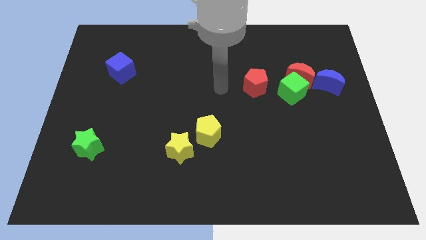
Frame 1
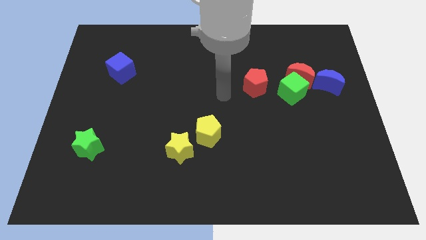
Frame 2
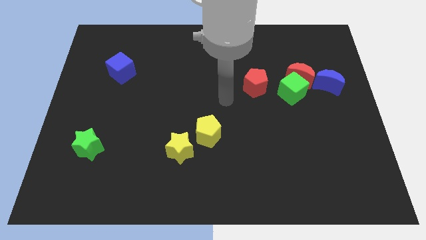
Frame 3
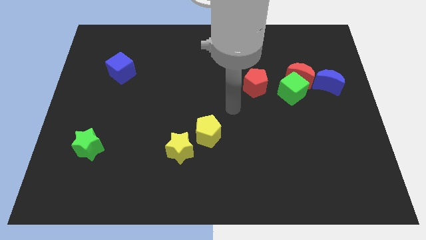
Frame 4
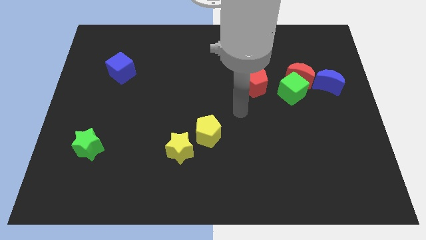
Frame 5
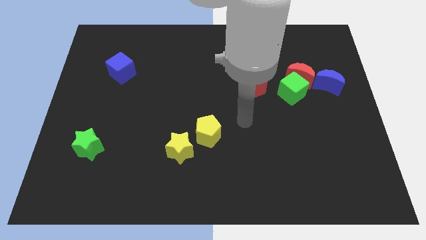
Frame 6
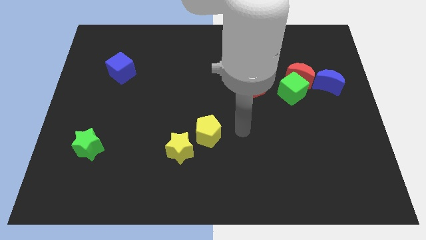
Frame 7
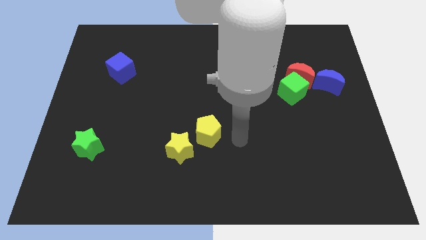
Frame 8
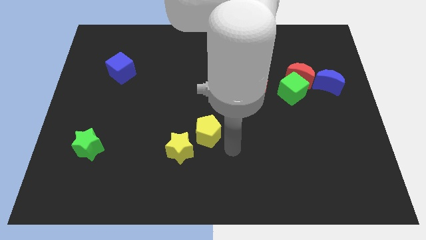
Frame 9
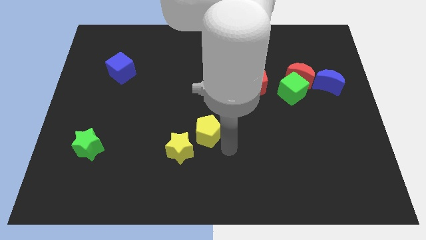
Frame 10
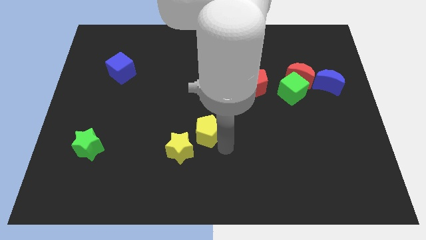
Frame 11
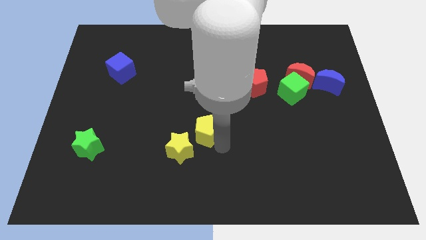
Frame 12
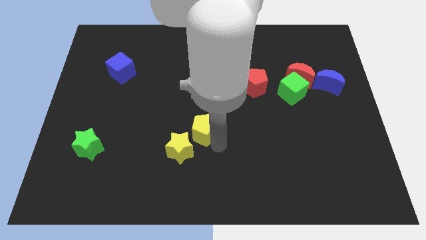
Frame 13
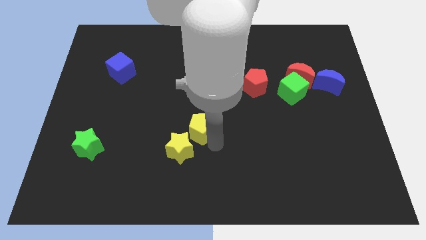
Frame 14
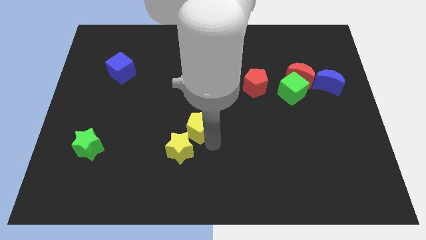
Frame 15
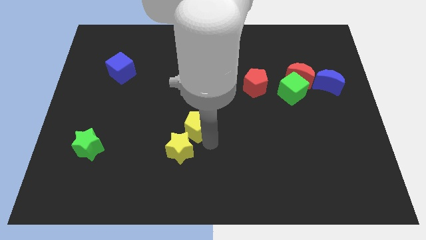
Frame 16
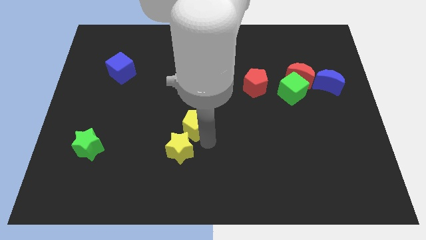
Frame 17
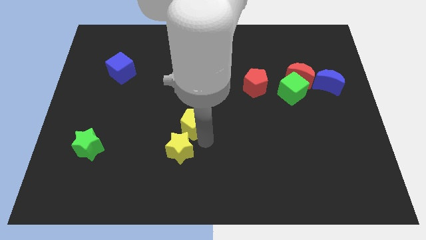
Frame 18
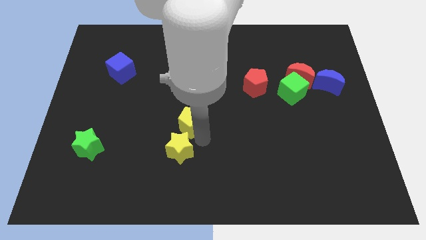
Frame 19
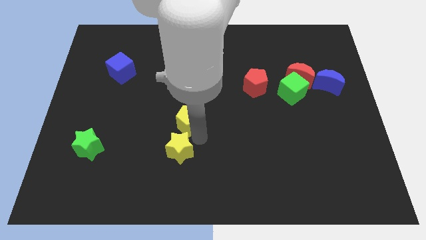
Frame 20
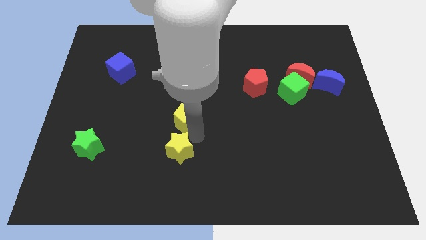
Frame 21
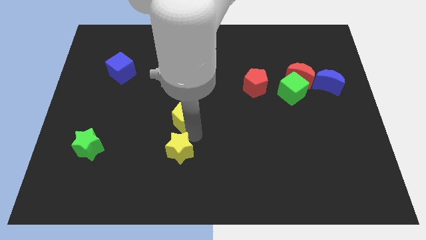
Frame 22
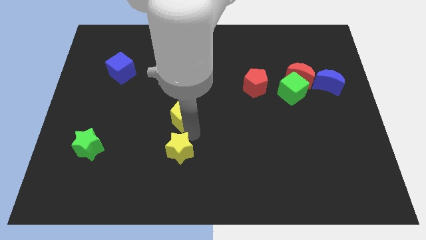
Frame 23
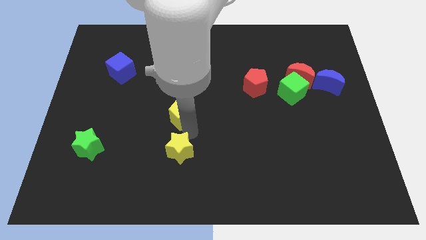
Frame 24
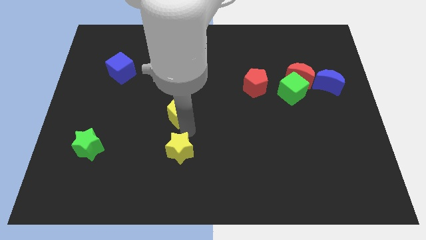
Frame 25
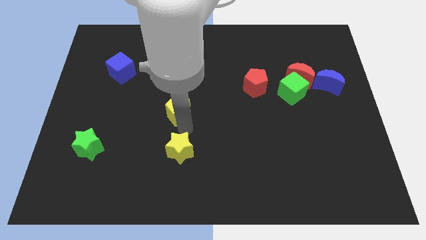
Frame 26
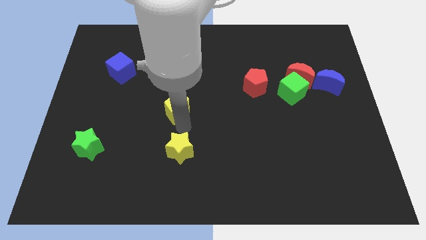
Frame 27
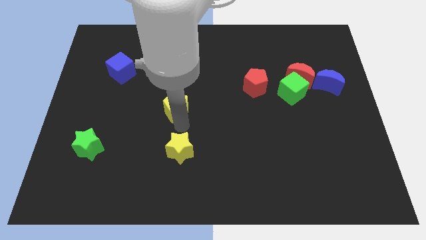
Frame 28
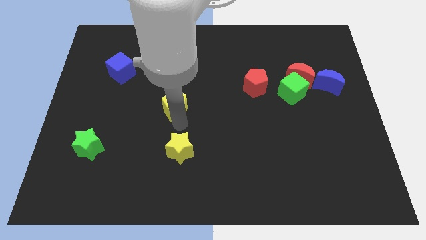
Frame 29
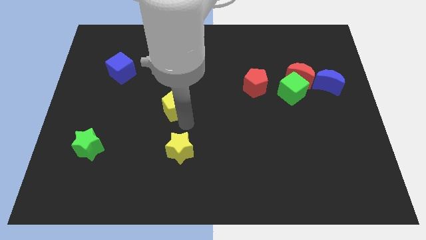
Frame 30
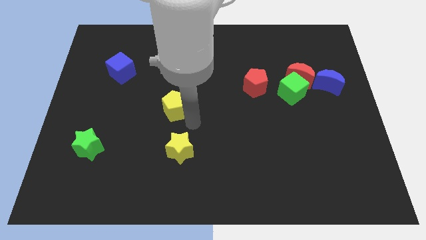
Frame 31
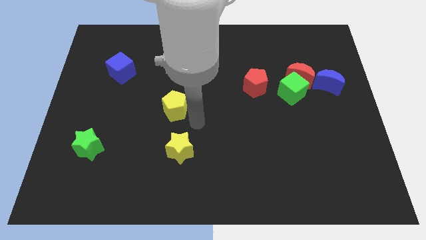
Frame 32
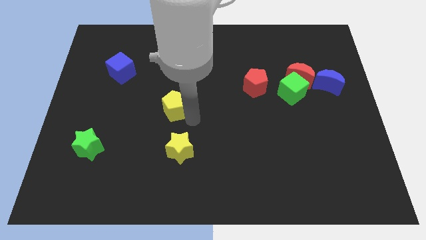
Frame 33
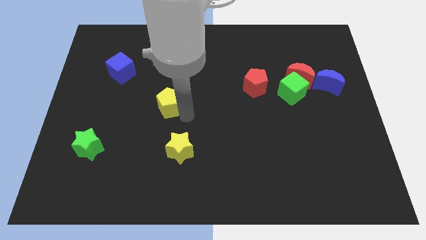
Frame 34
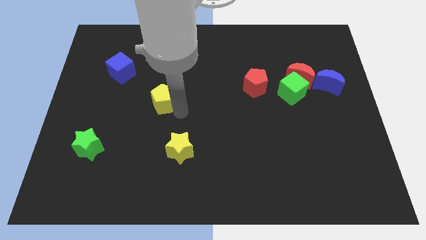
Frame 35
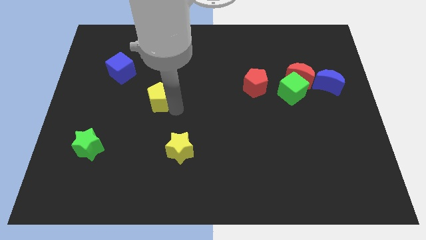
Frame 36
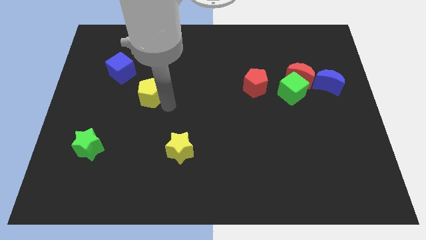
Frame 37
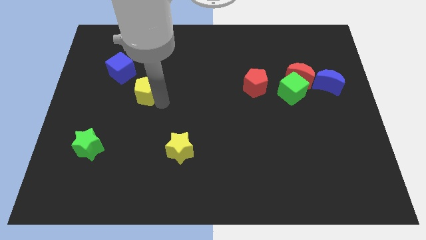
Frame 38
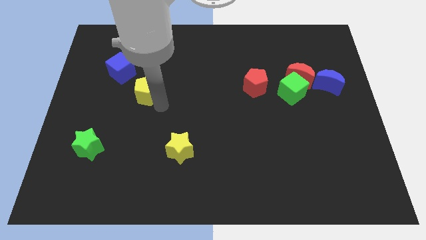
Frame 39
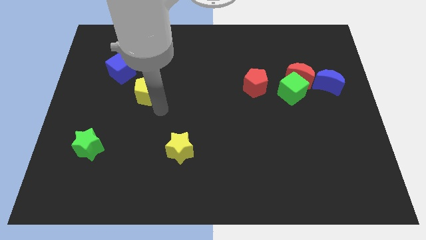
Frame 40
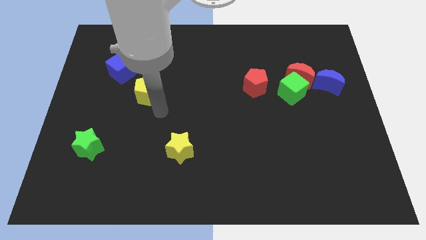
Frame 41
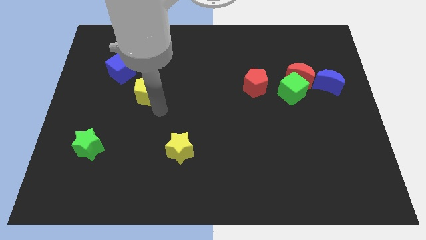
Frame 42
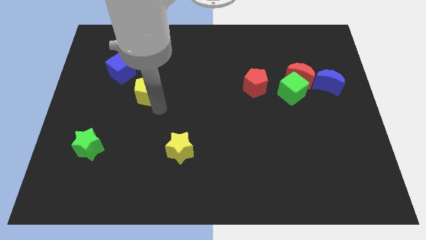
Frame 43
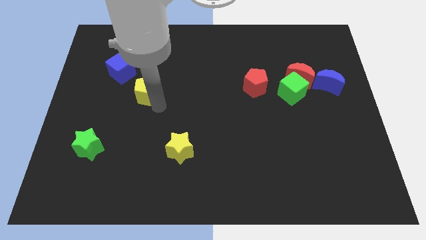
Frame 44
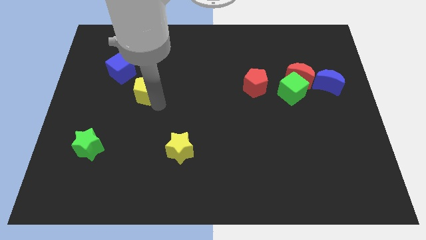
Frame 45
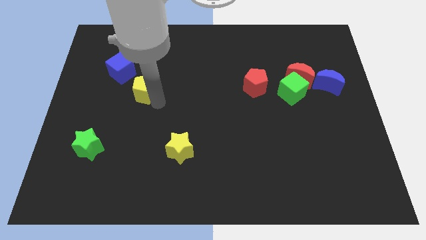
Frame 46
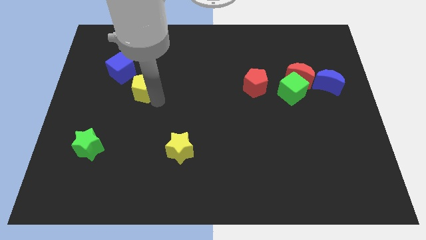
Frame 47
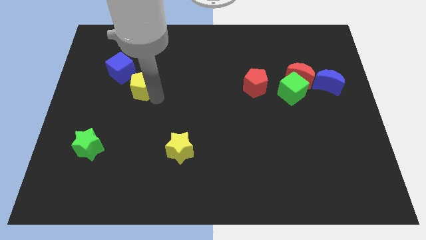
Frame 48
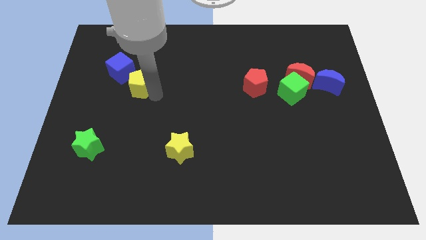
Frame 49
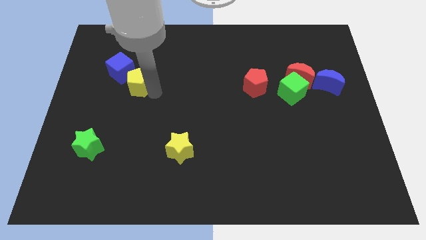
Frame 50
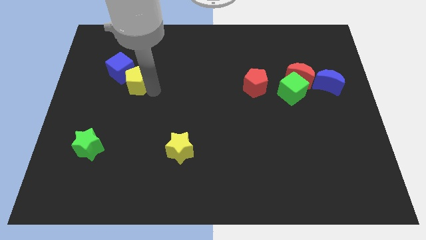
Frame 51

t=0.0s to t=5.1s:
push the yellow pentagon close to the blue cube

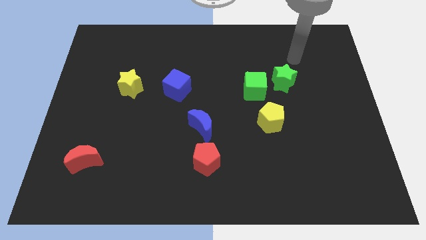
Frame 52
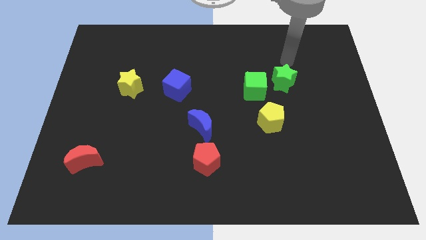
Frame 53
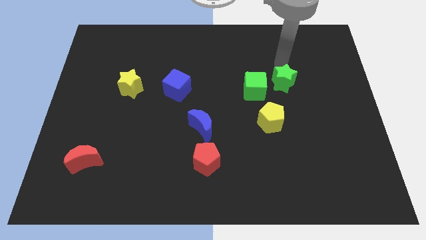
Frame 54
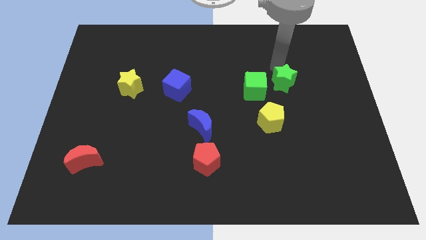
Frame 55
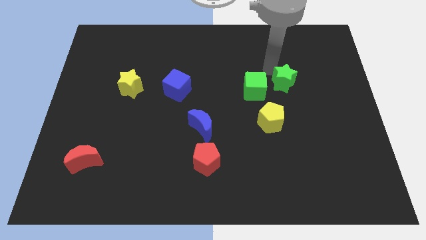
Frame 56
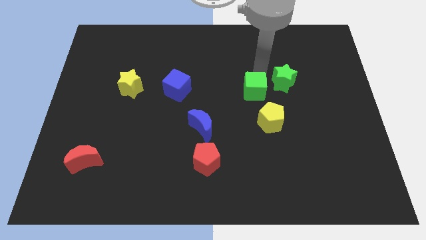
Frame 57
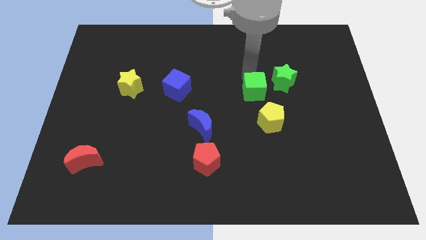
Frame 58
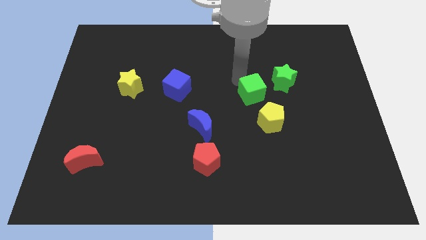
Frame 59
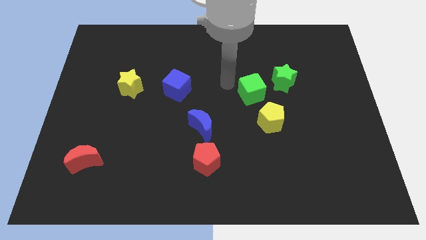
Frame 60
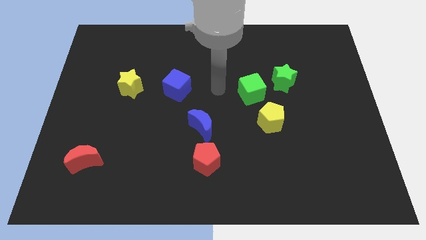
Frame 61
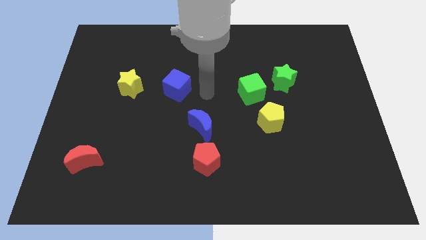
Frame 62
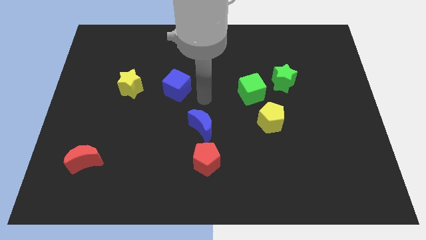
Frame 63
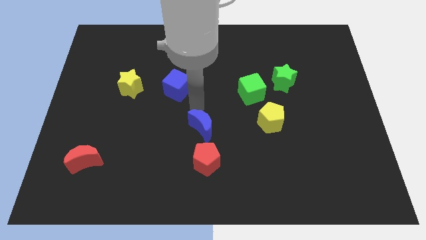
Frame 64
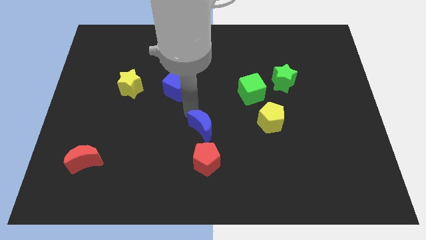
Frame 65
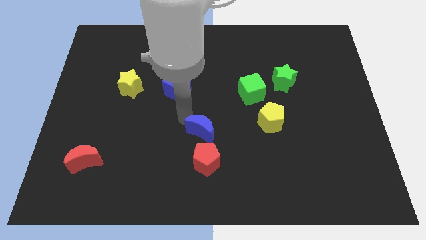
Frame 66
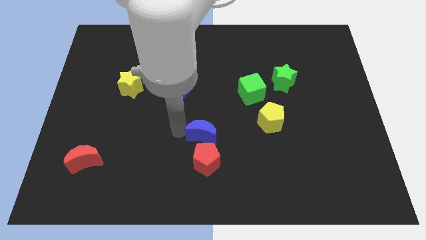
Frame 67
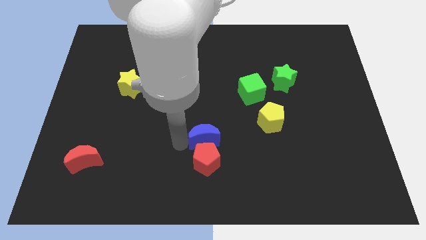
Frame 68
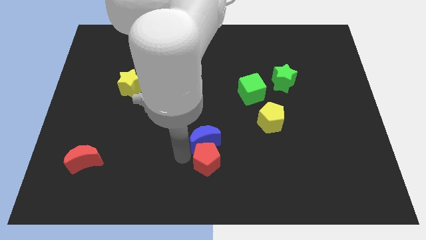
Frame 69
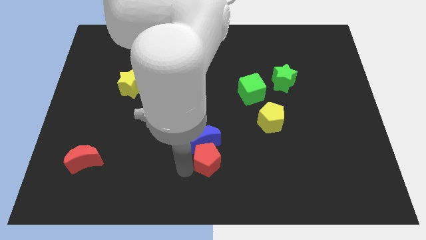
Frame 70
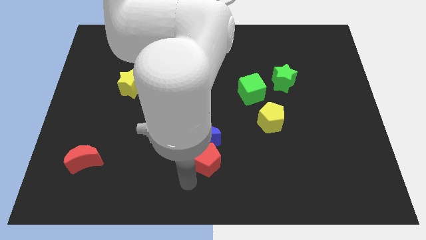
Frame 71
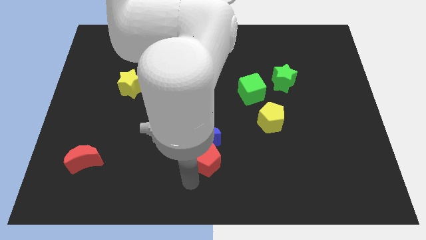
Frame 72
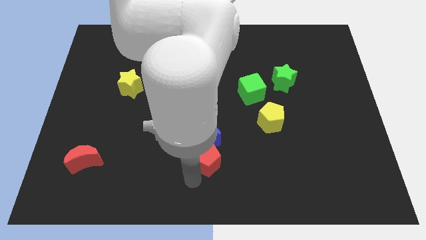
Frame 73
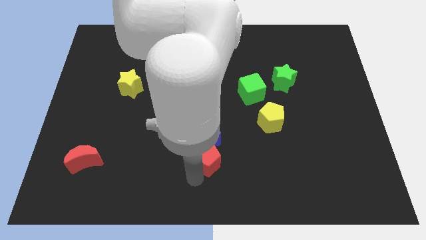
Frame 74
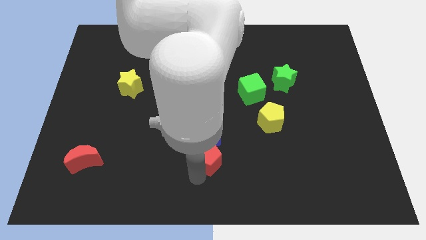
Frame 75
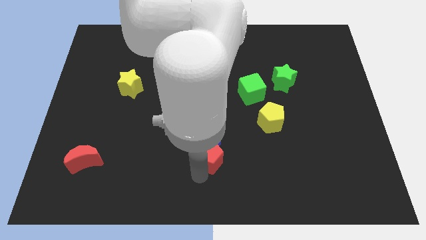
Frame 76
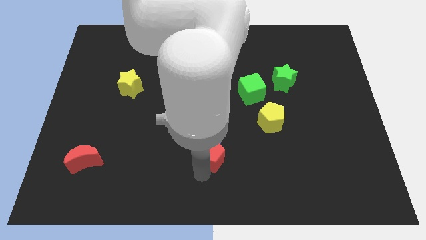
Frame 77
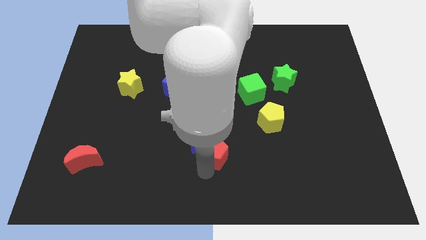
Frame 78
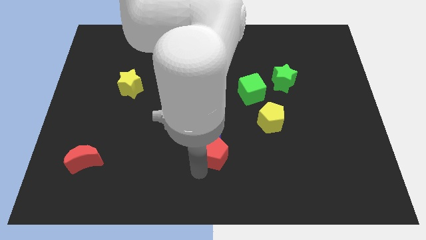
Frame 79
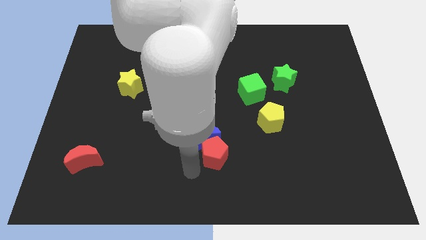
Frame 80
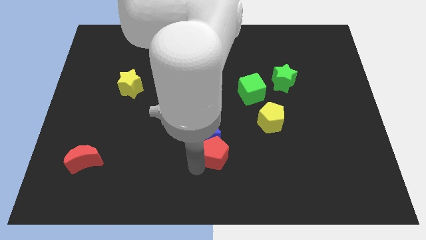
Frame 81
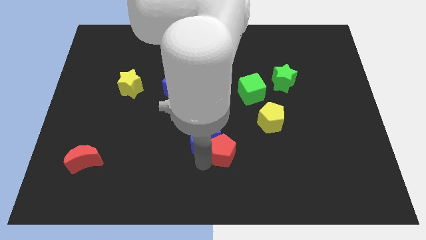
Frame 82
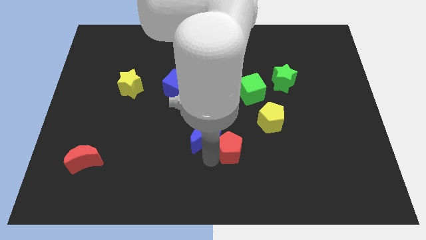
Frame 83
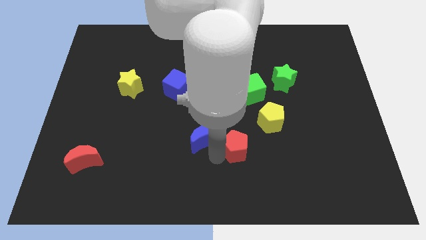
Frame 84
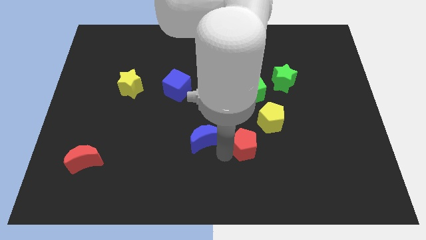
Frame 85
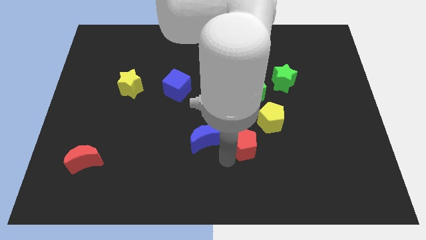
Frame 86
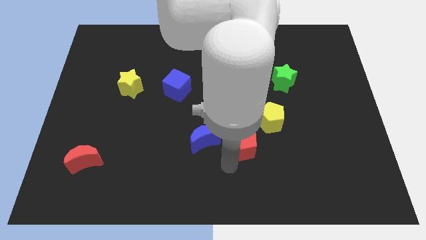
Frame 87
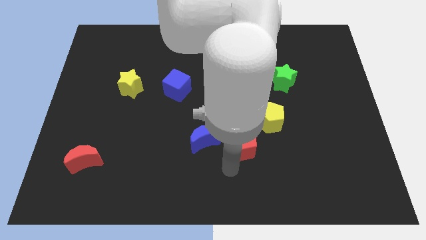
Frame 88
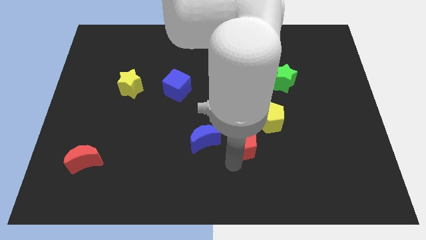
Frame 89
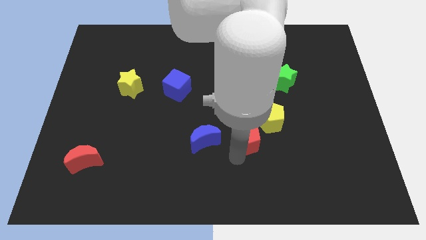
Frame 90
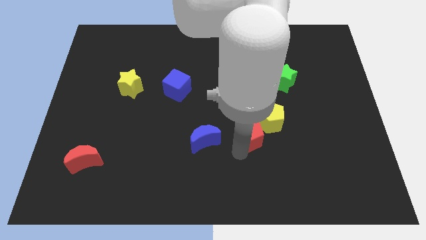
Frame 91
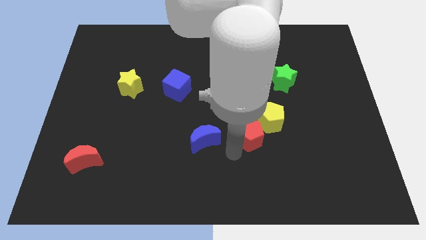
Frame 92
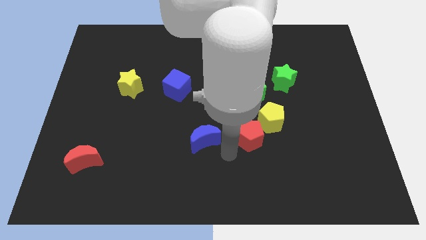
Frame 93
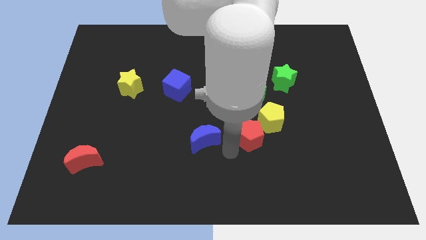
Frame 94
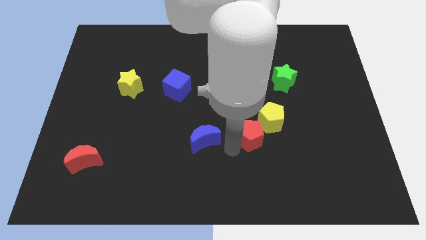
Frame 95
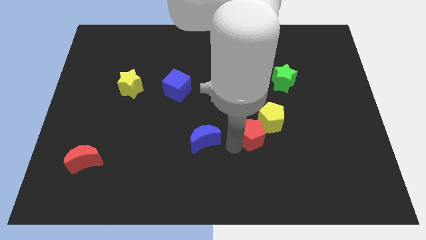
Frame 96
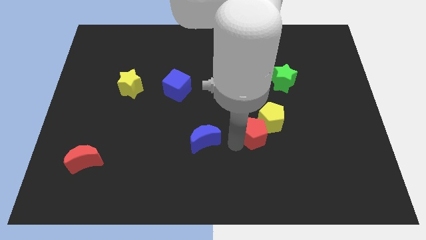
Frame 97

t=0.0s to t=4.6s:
move the red pentagon next to the yellow pentagon
